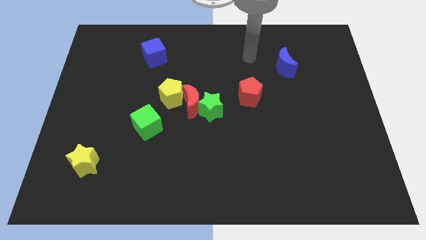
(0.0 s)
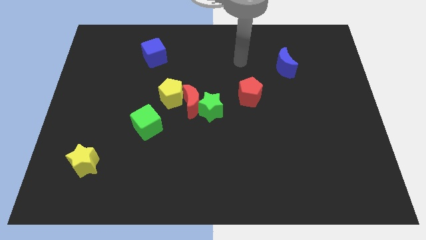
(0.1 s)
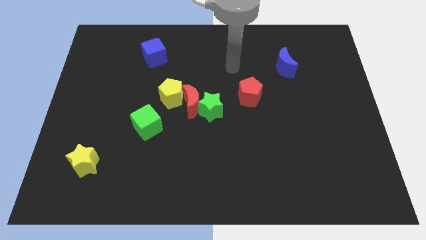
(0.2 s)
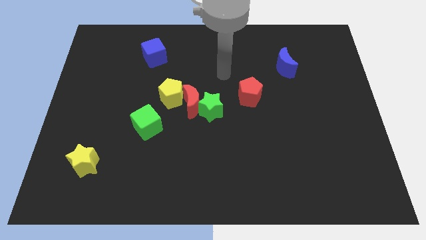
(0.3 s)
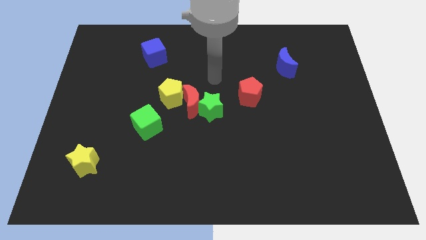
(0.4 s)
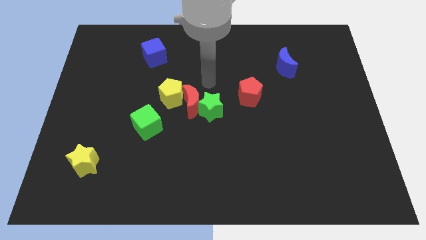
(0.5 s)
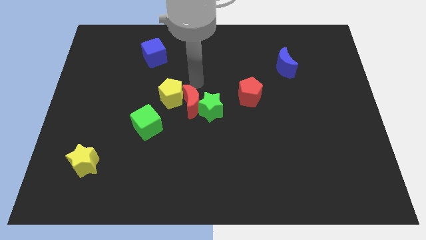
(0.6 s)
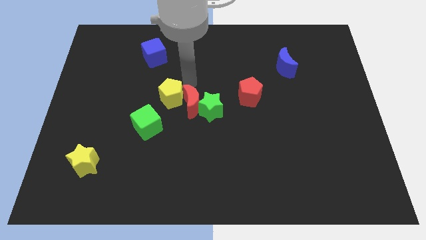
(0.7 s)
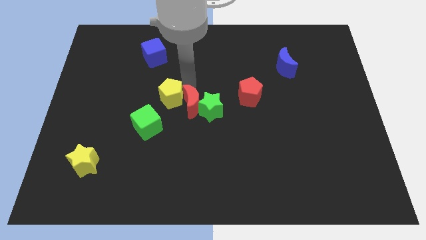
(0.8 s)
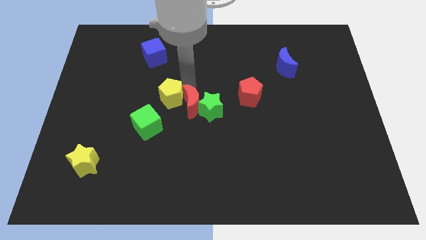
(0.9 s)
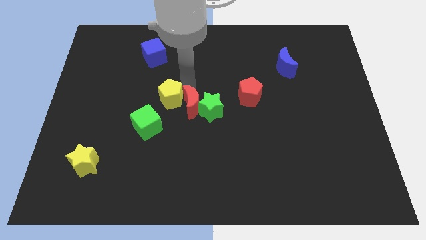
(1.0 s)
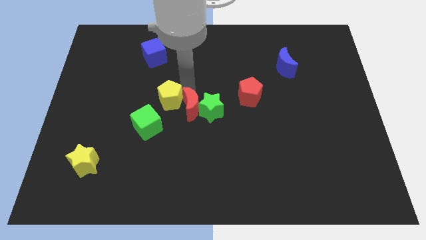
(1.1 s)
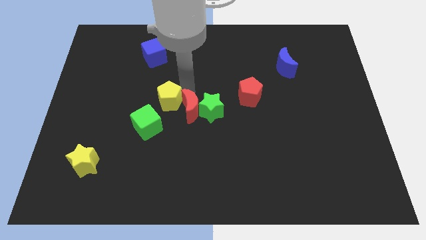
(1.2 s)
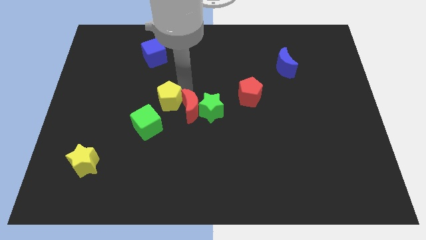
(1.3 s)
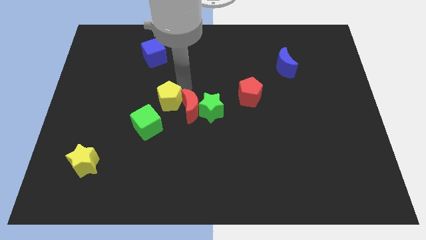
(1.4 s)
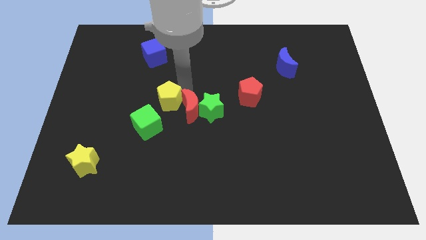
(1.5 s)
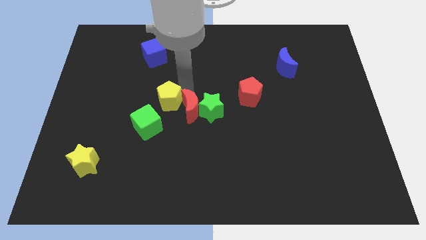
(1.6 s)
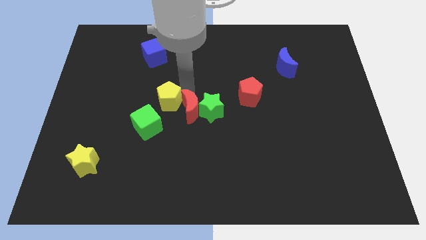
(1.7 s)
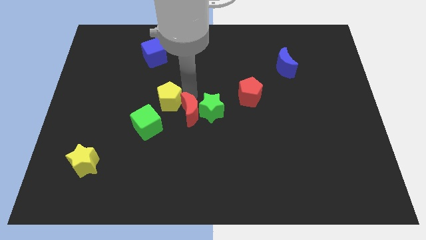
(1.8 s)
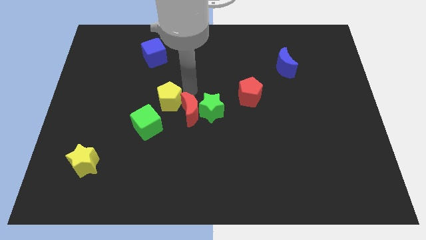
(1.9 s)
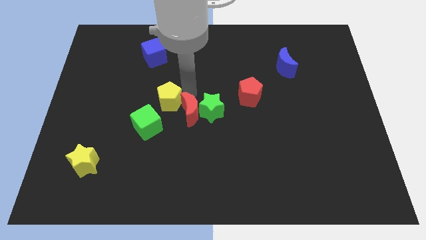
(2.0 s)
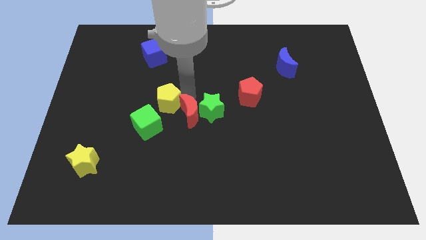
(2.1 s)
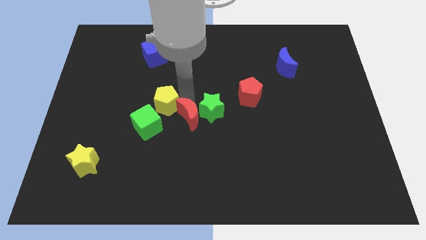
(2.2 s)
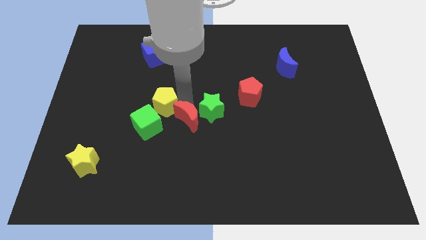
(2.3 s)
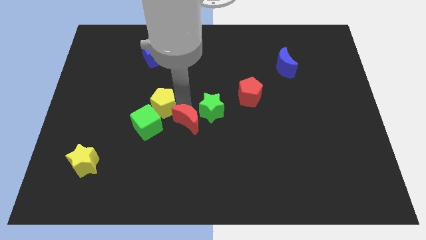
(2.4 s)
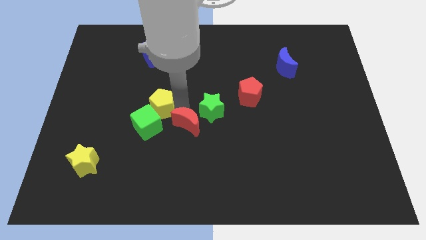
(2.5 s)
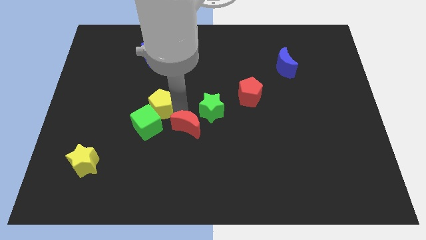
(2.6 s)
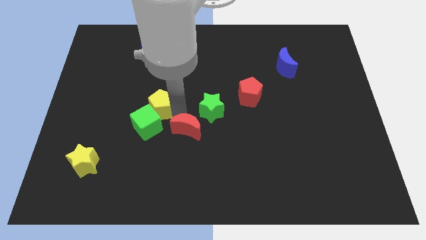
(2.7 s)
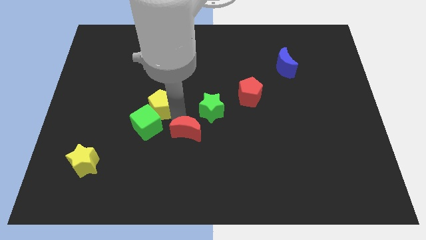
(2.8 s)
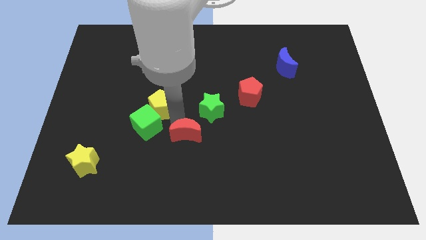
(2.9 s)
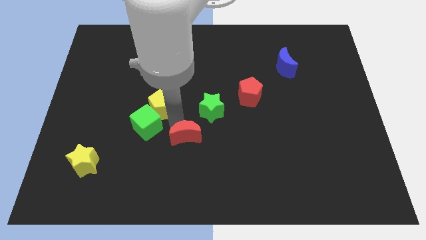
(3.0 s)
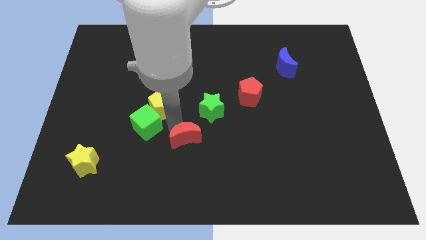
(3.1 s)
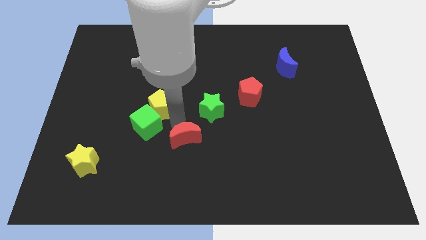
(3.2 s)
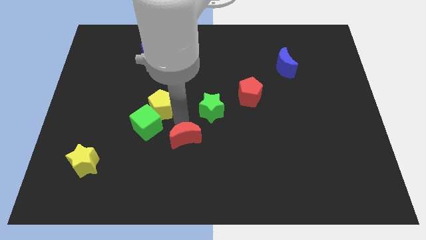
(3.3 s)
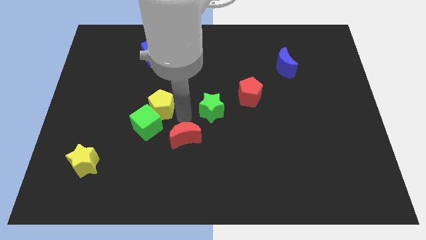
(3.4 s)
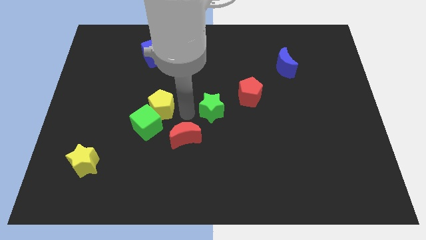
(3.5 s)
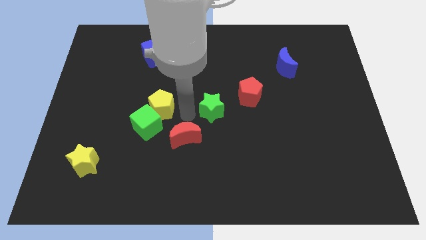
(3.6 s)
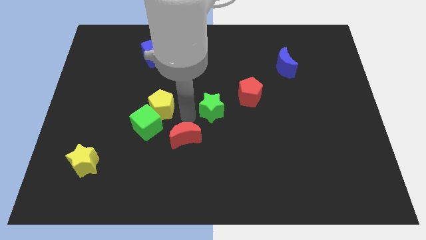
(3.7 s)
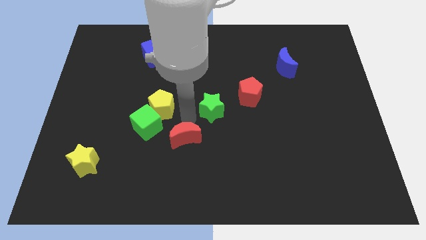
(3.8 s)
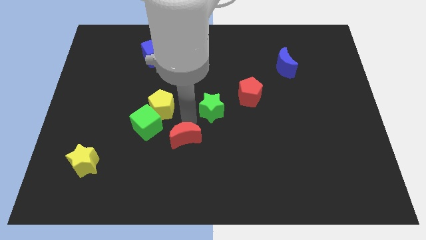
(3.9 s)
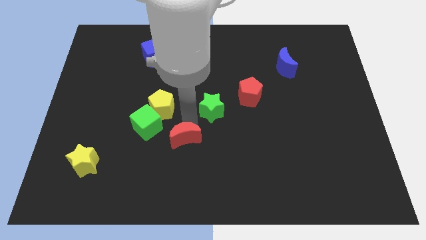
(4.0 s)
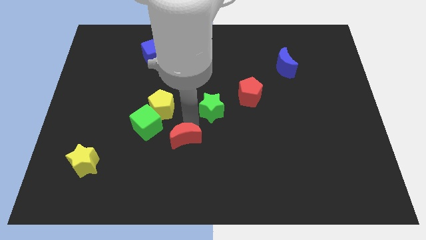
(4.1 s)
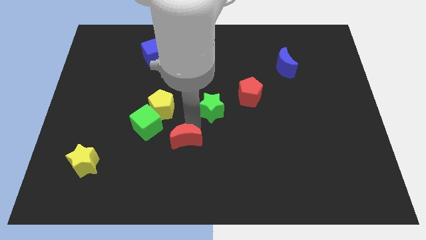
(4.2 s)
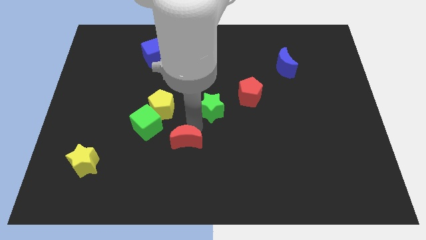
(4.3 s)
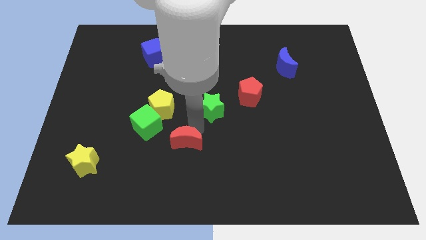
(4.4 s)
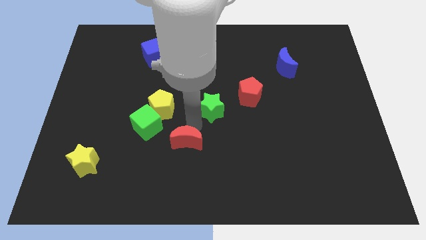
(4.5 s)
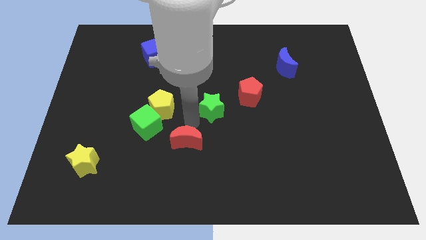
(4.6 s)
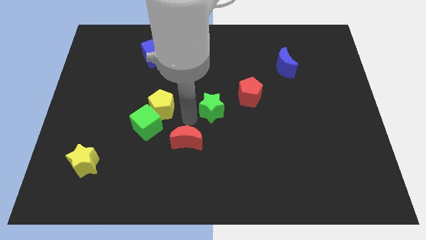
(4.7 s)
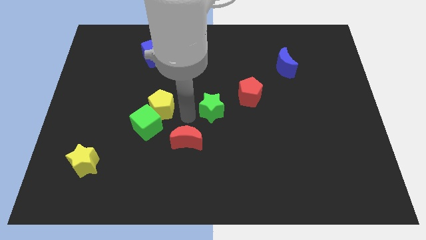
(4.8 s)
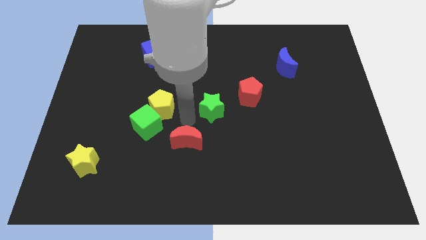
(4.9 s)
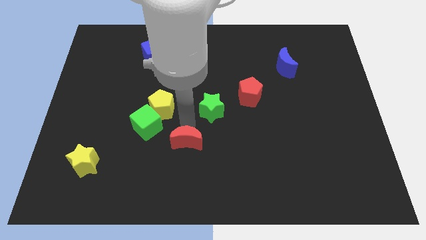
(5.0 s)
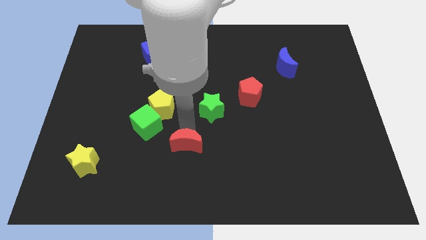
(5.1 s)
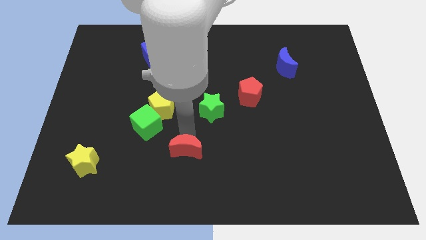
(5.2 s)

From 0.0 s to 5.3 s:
move the red moon away from the green star and yellow pentagon

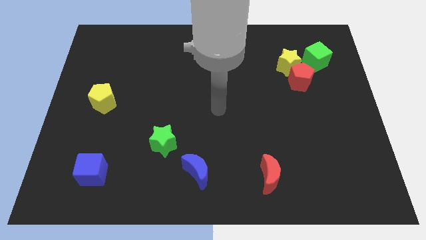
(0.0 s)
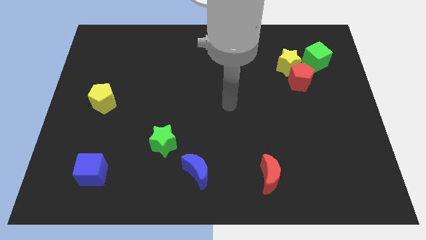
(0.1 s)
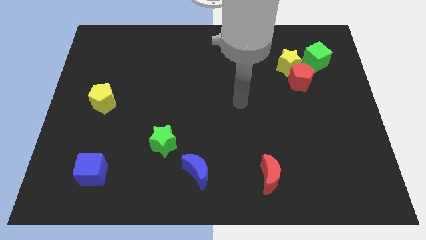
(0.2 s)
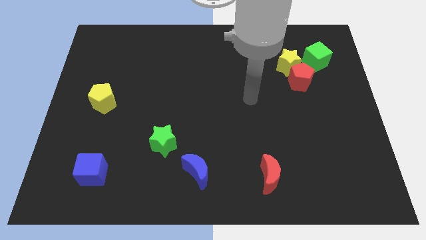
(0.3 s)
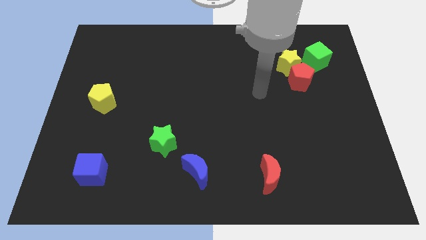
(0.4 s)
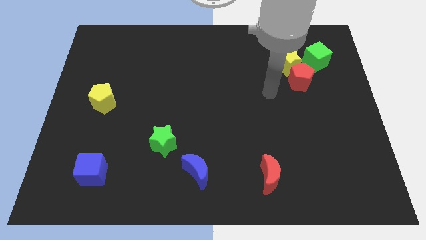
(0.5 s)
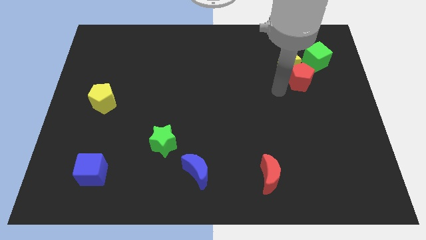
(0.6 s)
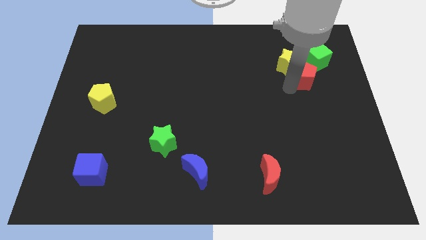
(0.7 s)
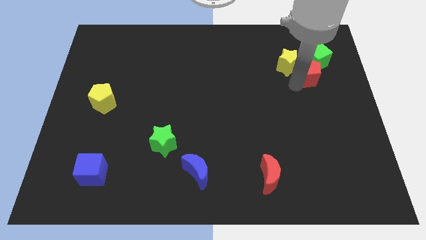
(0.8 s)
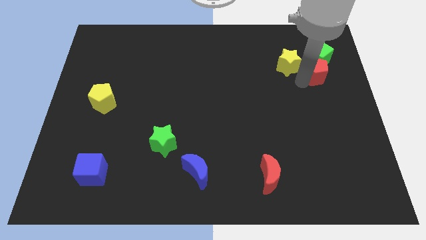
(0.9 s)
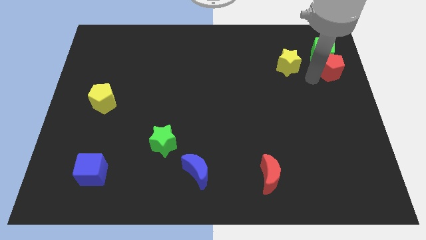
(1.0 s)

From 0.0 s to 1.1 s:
move the yellow star away from the red pentagon and green cube

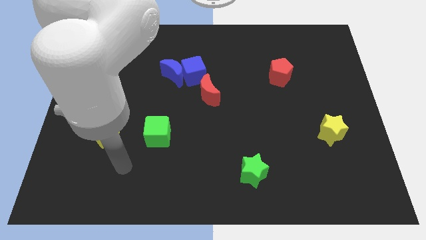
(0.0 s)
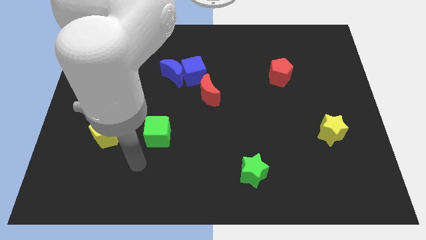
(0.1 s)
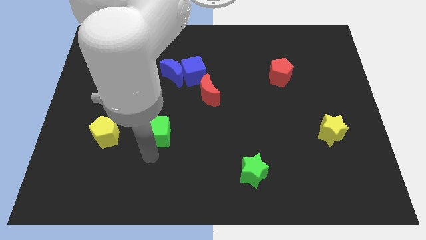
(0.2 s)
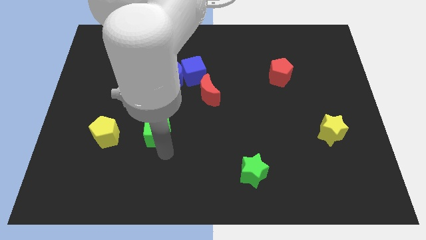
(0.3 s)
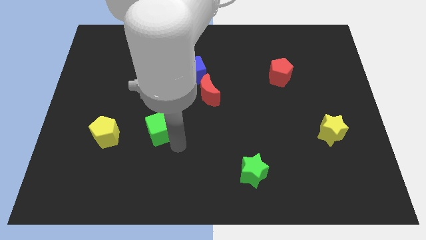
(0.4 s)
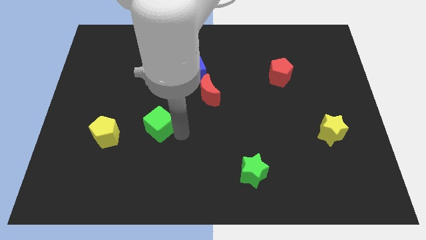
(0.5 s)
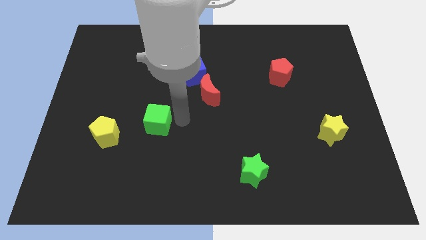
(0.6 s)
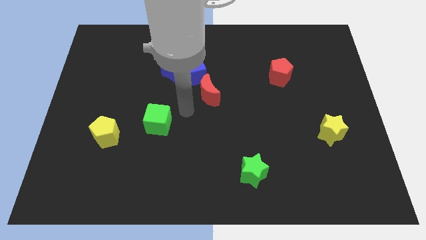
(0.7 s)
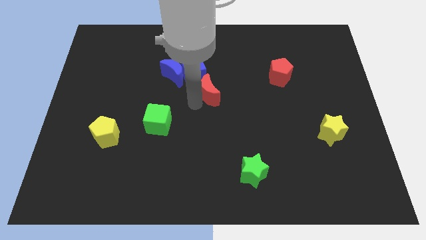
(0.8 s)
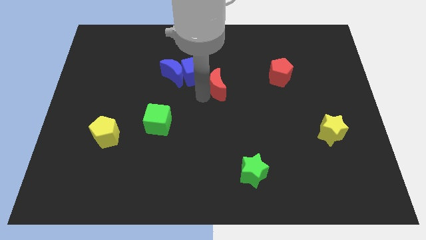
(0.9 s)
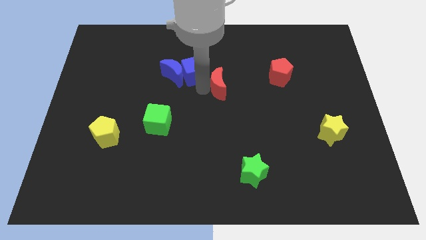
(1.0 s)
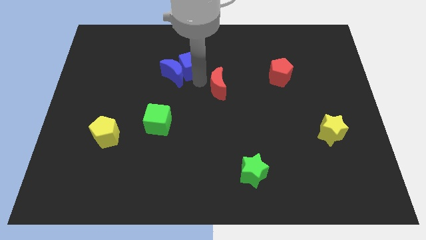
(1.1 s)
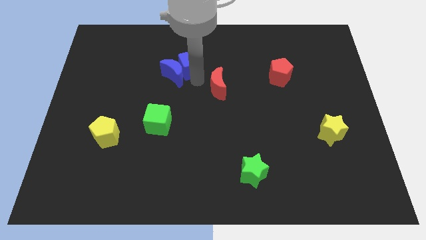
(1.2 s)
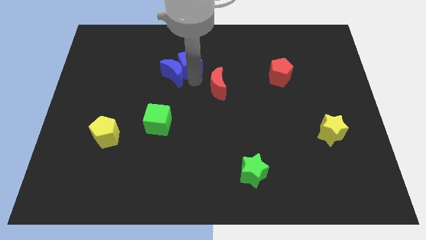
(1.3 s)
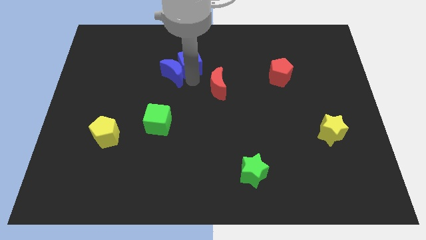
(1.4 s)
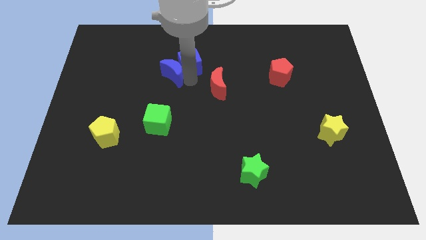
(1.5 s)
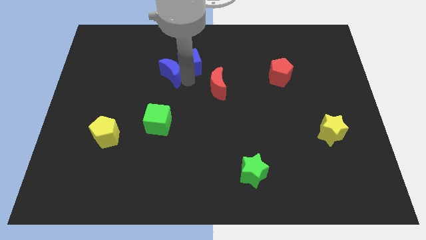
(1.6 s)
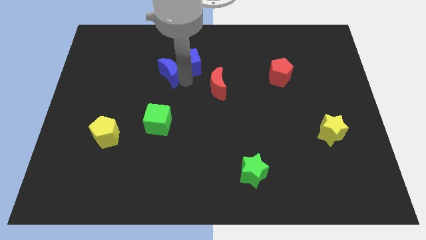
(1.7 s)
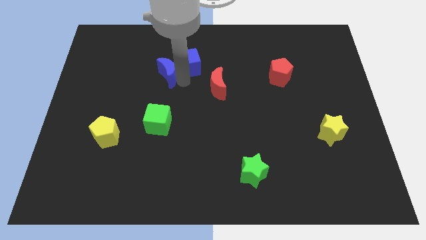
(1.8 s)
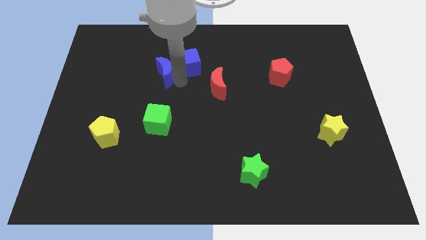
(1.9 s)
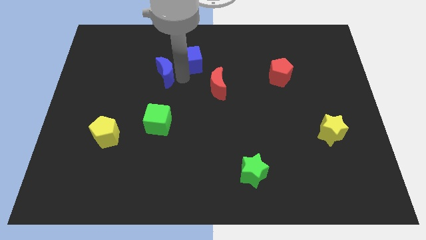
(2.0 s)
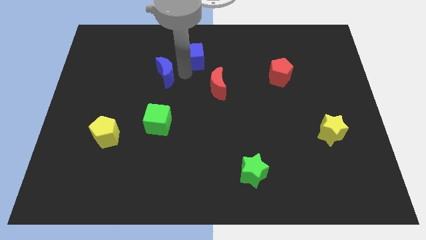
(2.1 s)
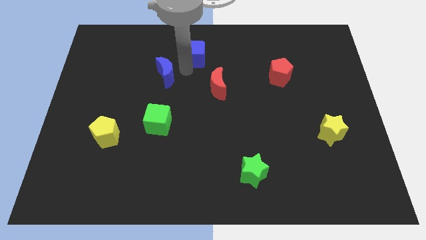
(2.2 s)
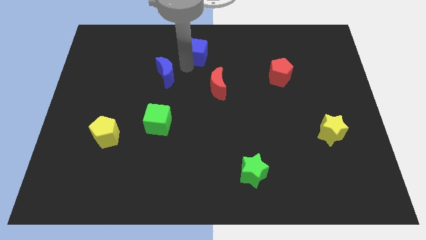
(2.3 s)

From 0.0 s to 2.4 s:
move the blue moon away from the blue cube

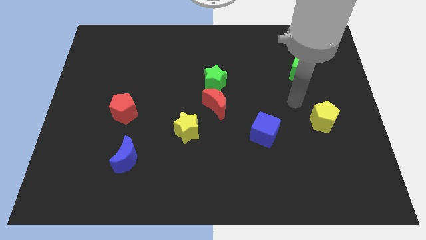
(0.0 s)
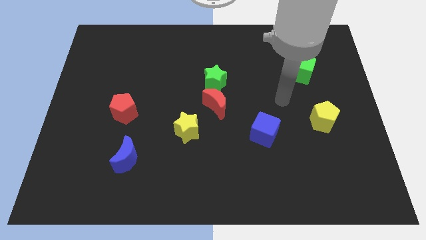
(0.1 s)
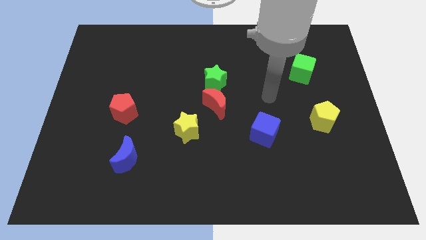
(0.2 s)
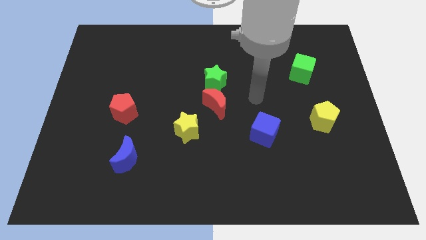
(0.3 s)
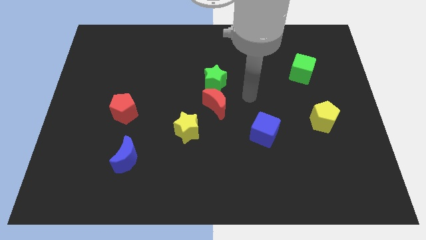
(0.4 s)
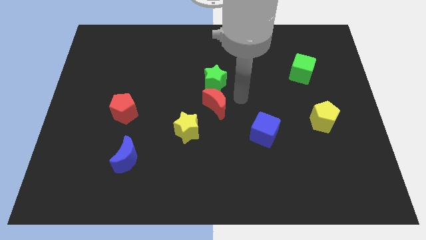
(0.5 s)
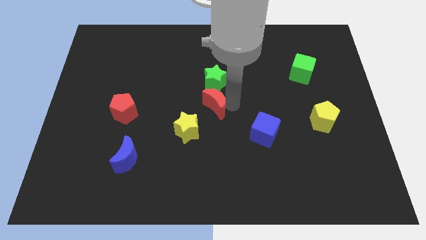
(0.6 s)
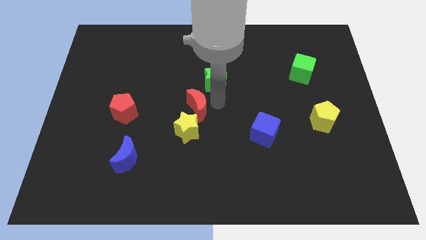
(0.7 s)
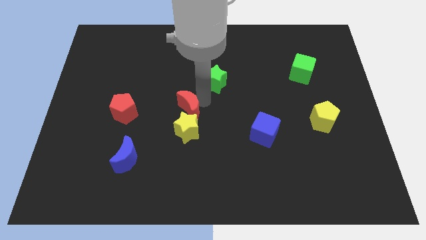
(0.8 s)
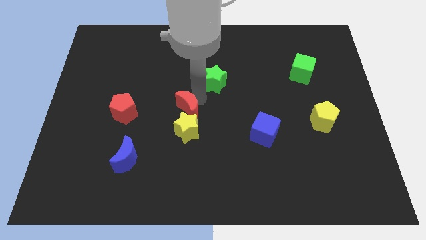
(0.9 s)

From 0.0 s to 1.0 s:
separate the green star from the red moon
